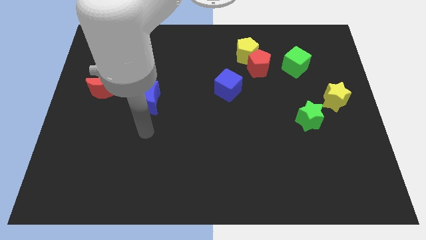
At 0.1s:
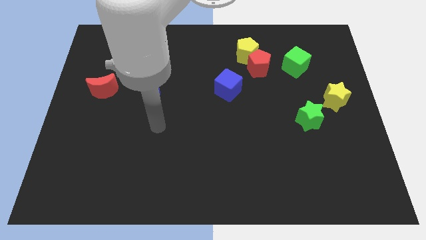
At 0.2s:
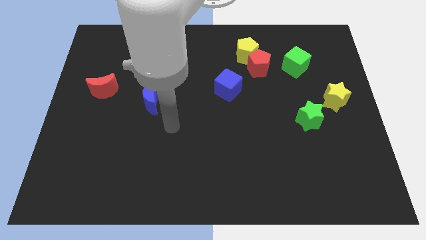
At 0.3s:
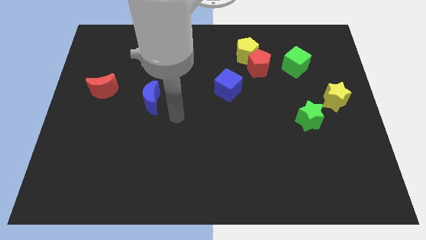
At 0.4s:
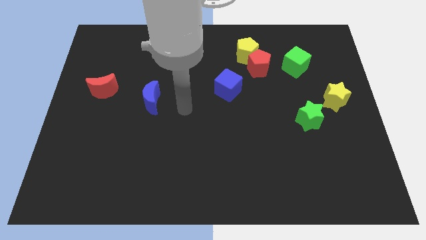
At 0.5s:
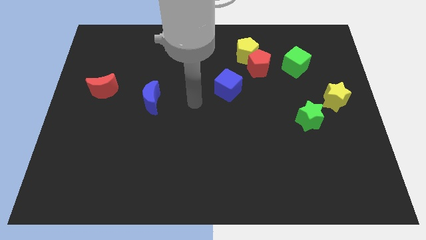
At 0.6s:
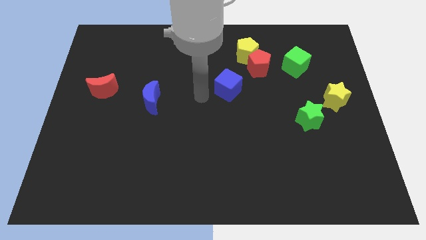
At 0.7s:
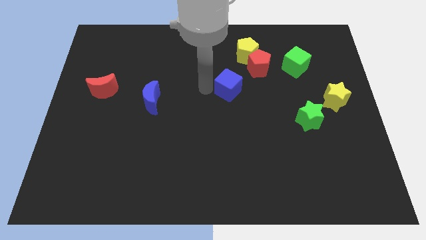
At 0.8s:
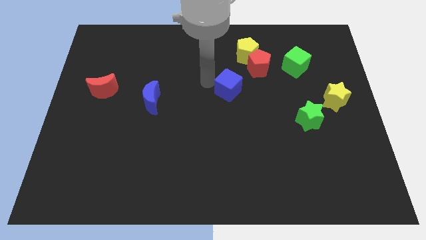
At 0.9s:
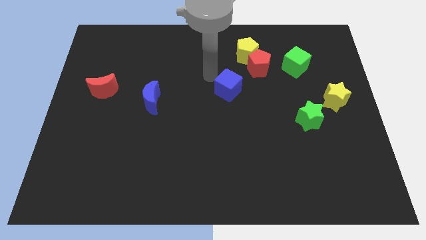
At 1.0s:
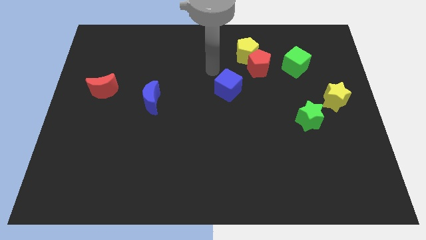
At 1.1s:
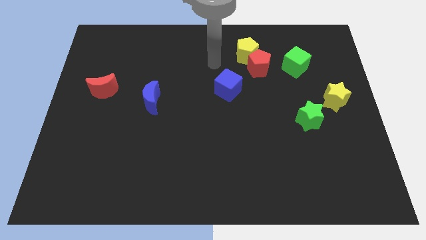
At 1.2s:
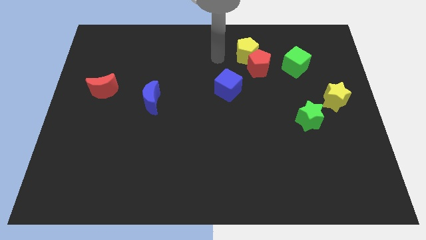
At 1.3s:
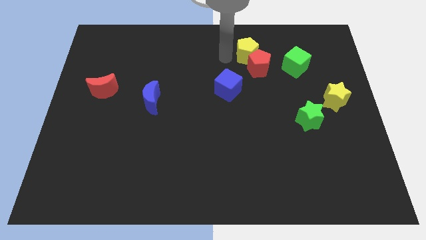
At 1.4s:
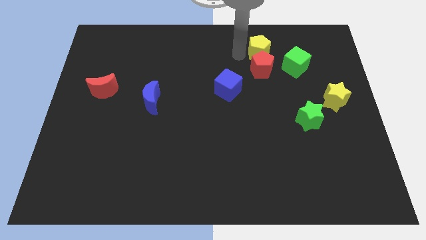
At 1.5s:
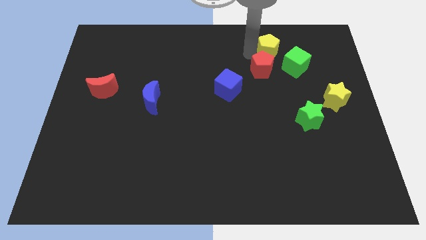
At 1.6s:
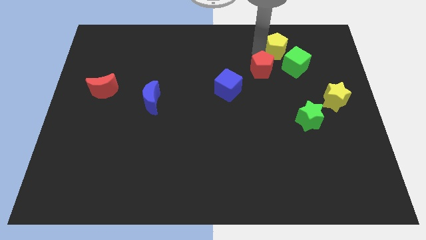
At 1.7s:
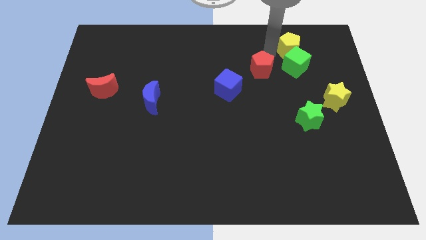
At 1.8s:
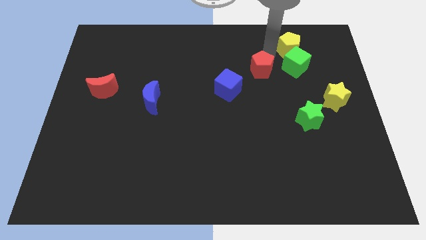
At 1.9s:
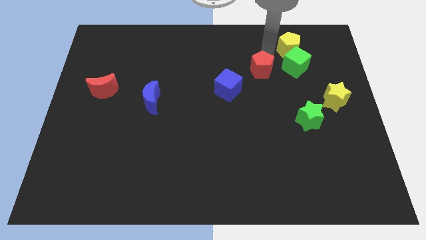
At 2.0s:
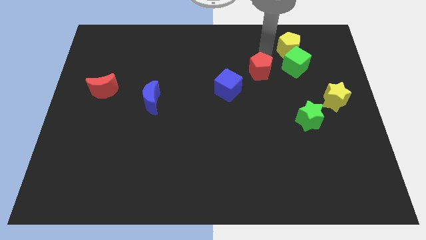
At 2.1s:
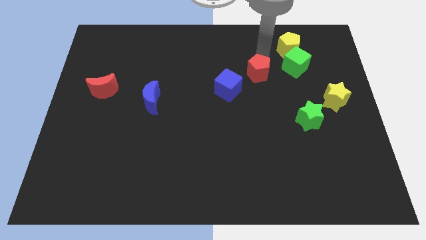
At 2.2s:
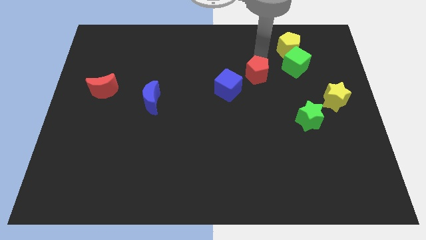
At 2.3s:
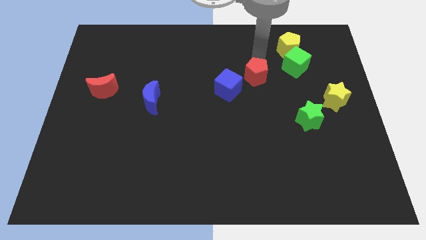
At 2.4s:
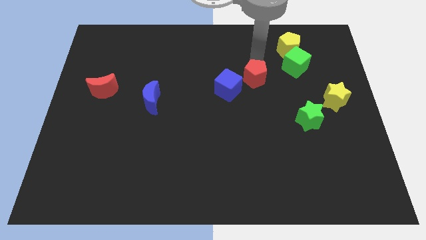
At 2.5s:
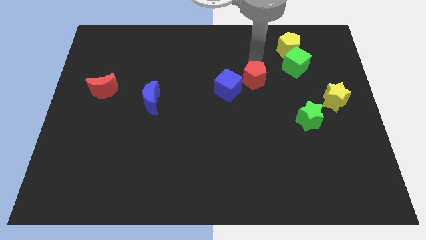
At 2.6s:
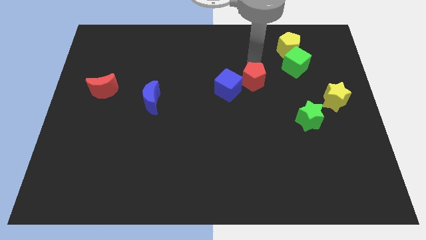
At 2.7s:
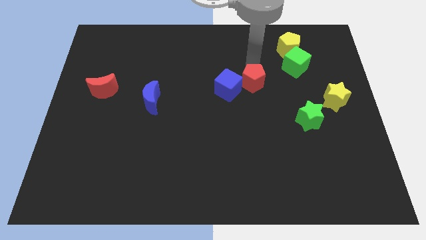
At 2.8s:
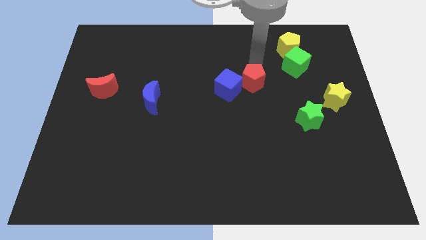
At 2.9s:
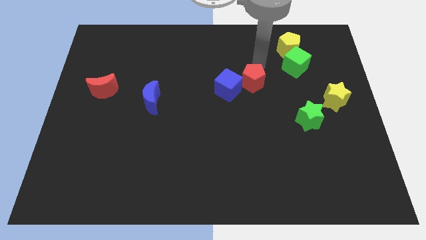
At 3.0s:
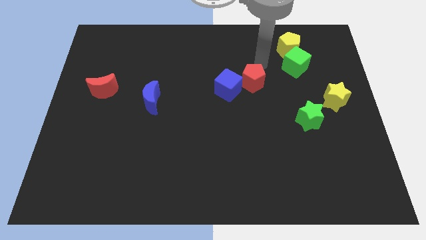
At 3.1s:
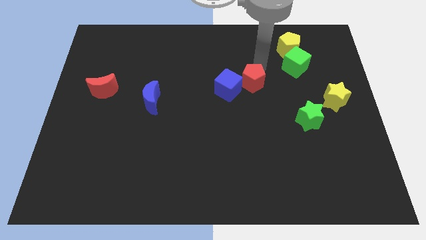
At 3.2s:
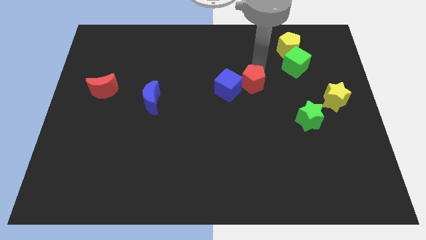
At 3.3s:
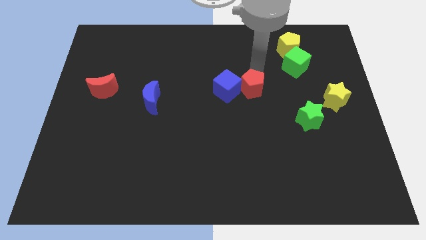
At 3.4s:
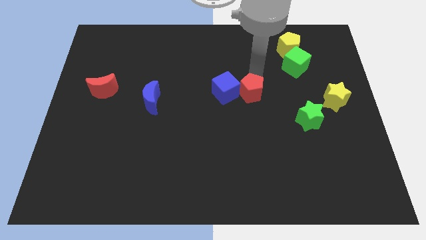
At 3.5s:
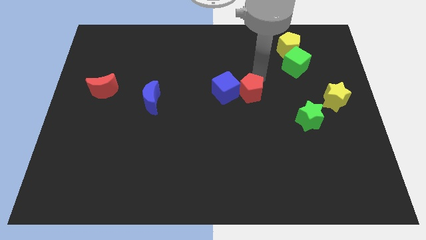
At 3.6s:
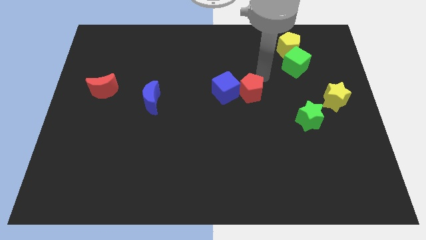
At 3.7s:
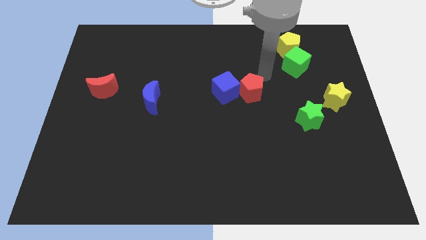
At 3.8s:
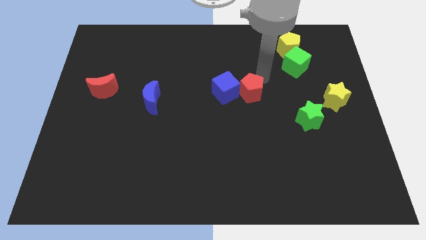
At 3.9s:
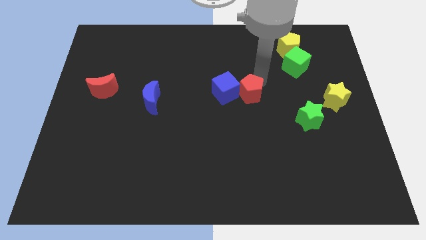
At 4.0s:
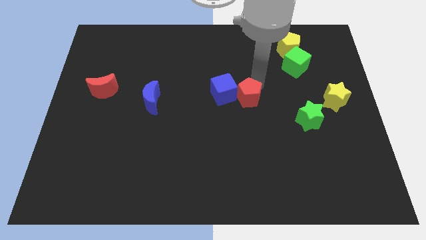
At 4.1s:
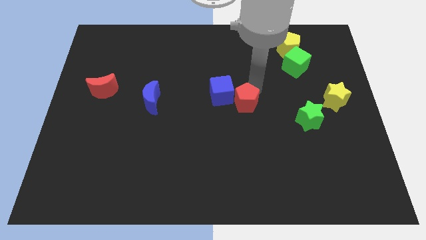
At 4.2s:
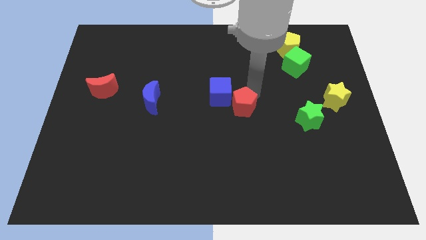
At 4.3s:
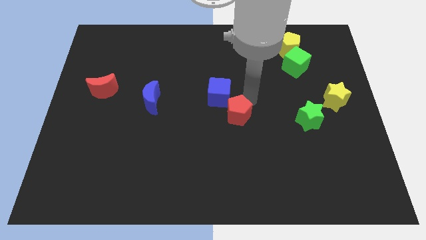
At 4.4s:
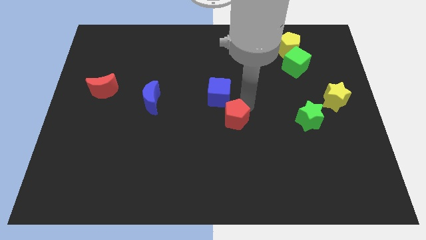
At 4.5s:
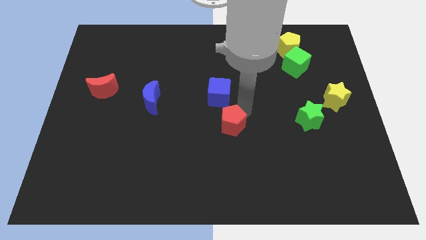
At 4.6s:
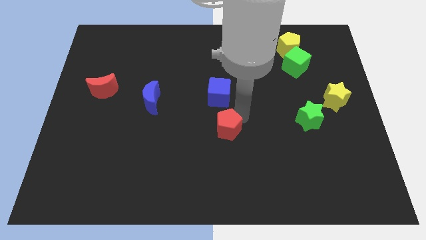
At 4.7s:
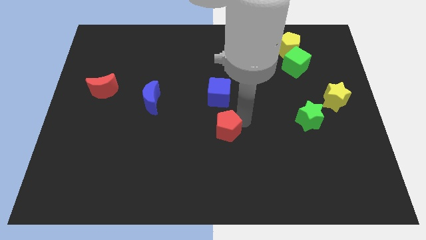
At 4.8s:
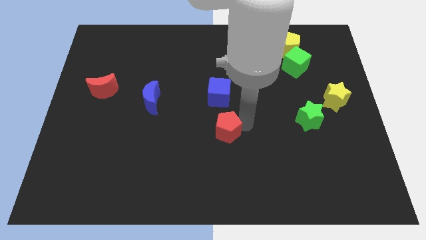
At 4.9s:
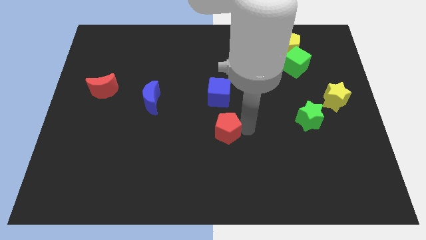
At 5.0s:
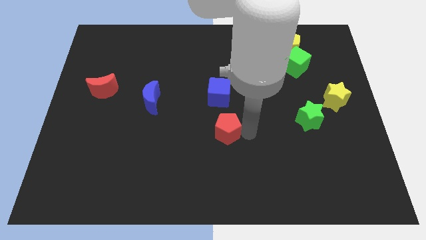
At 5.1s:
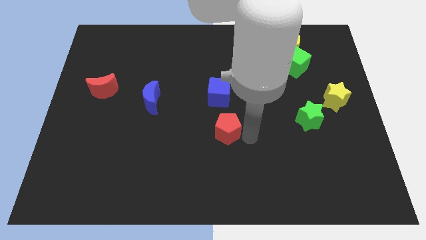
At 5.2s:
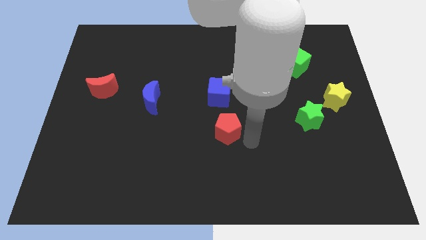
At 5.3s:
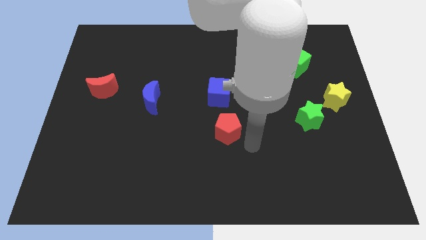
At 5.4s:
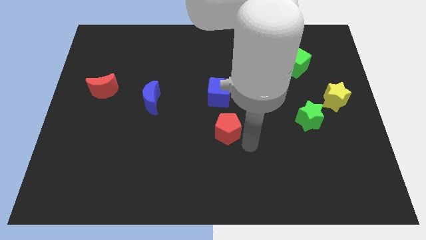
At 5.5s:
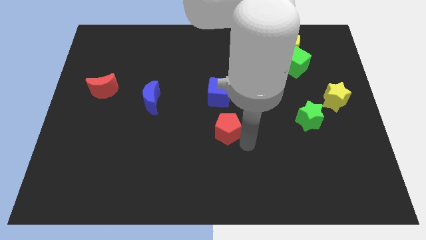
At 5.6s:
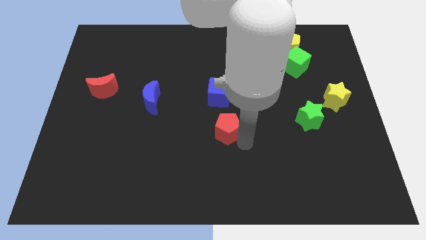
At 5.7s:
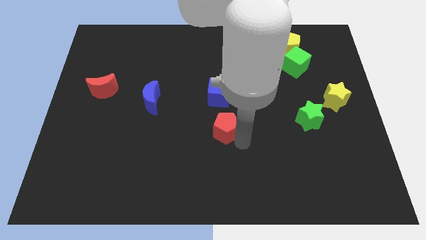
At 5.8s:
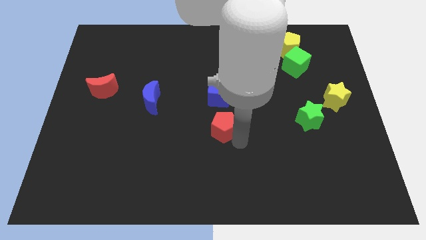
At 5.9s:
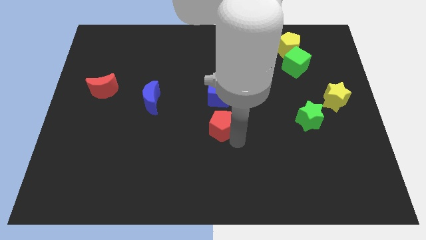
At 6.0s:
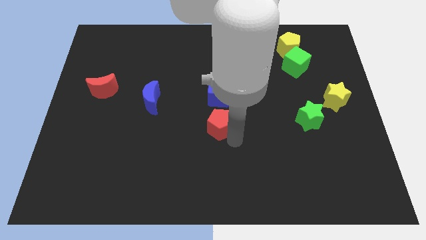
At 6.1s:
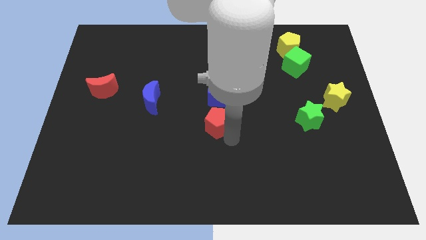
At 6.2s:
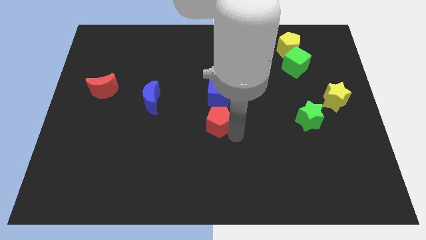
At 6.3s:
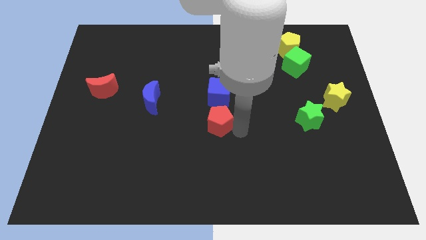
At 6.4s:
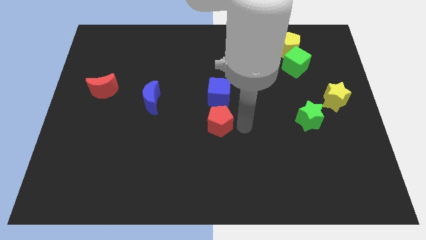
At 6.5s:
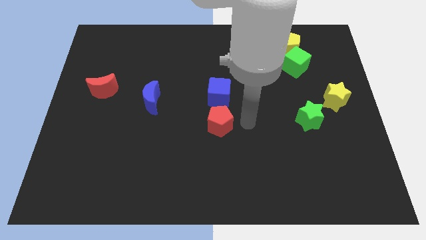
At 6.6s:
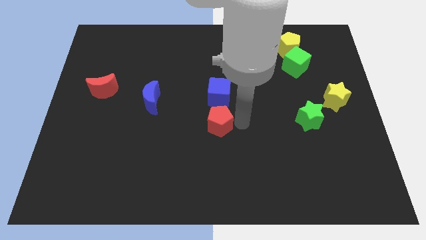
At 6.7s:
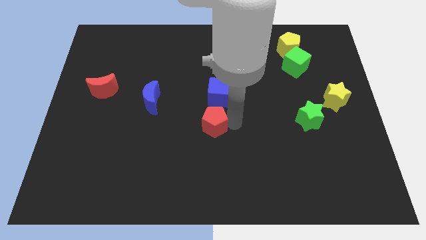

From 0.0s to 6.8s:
push the red pentagon down and to the left

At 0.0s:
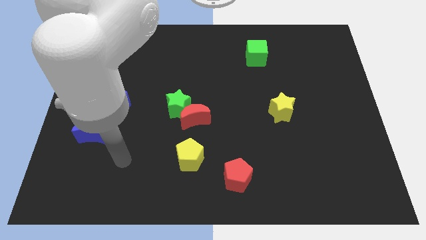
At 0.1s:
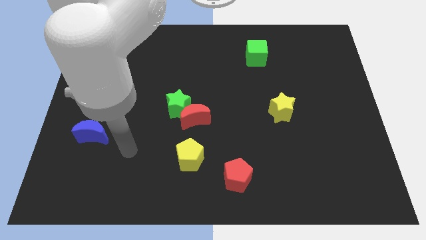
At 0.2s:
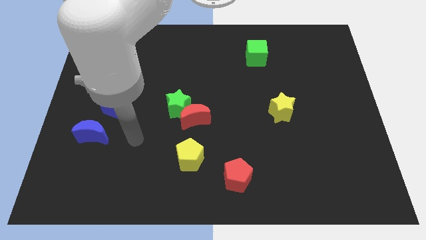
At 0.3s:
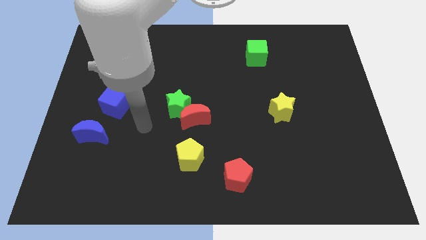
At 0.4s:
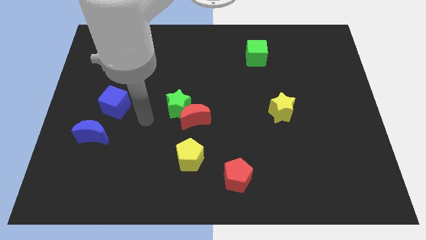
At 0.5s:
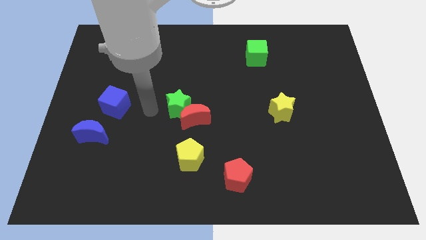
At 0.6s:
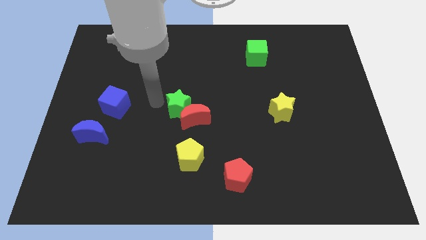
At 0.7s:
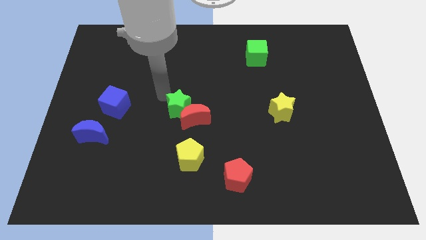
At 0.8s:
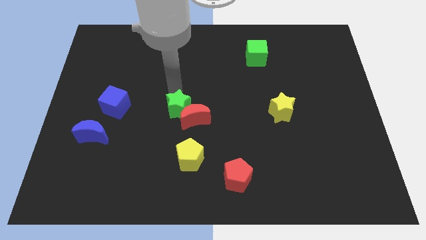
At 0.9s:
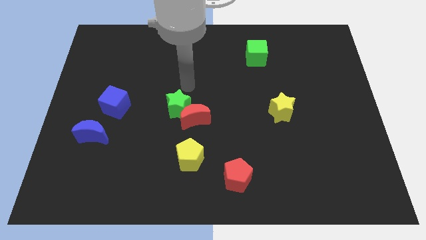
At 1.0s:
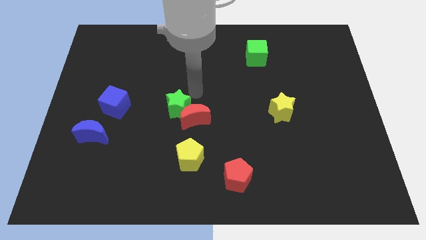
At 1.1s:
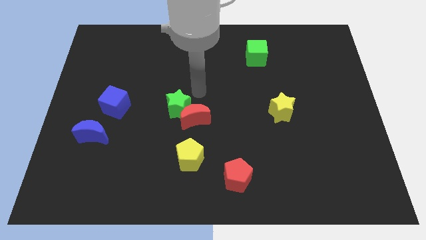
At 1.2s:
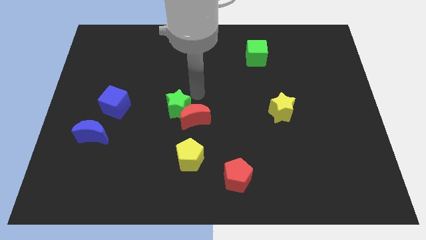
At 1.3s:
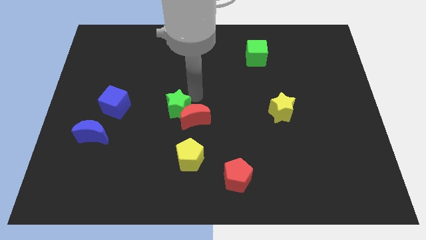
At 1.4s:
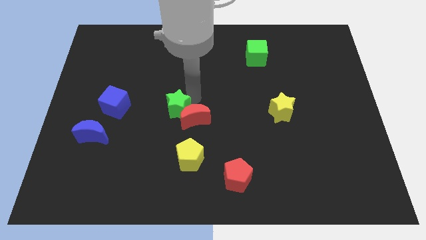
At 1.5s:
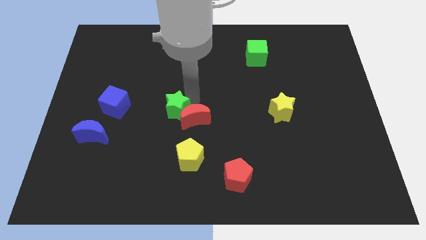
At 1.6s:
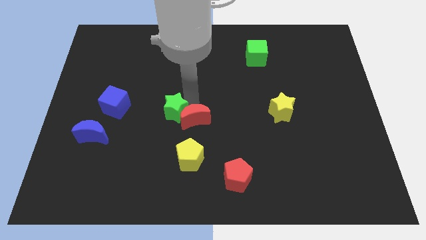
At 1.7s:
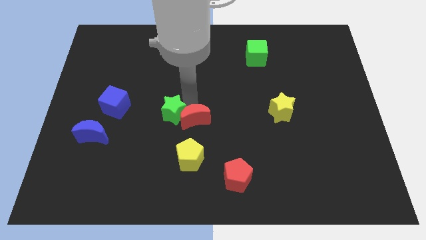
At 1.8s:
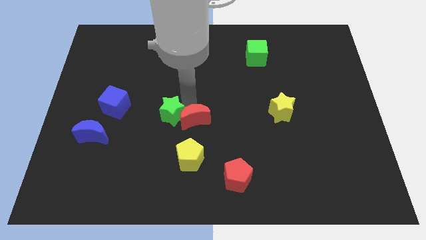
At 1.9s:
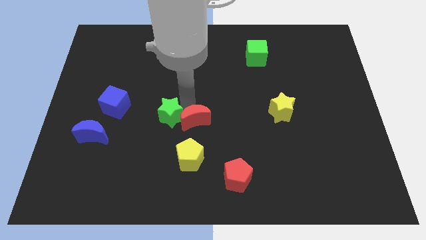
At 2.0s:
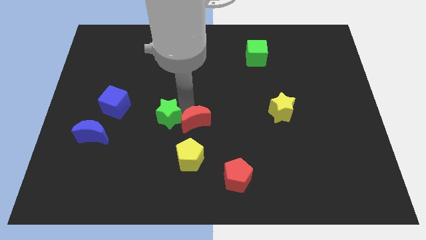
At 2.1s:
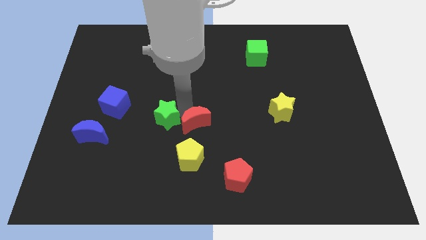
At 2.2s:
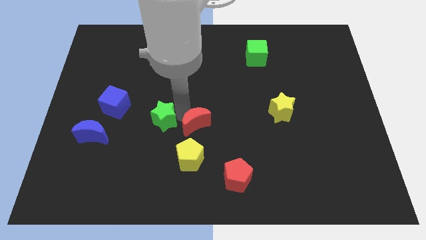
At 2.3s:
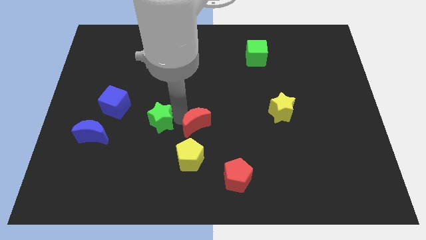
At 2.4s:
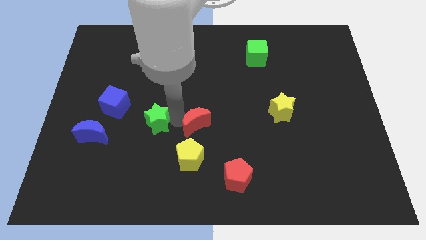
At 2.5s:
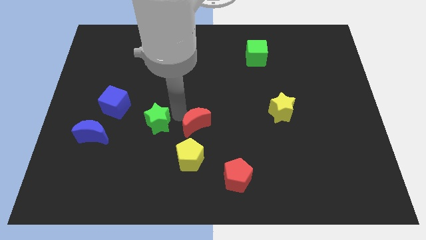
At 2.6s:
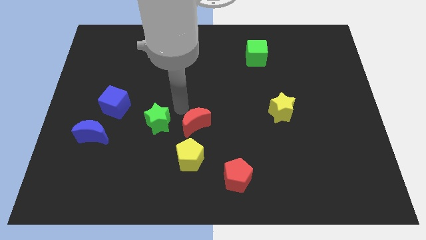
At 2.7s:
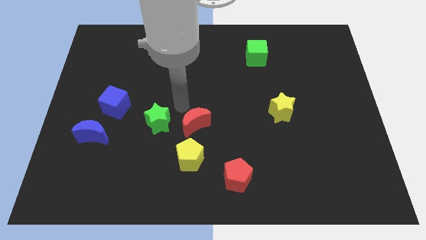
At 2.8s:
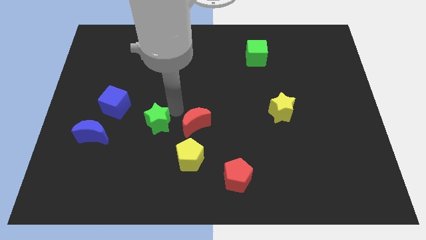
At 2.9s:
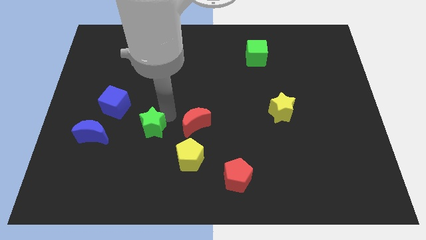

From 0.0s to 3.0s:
slightly move the green star diagonally down and left
